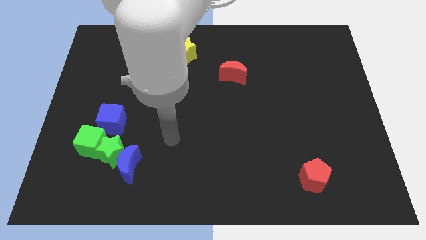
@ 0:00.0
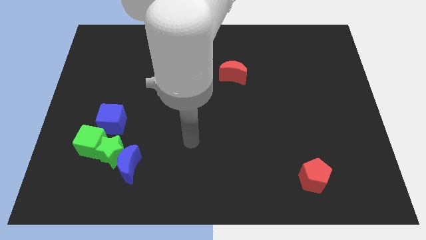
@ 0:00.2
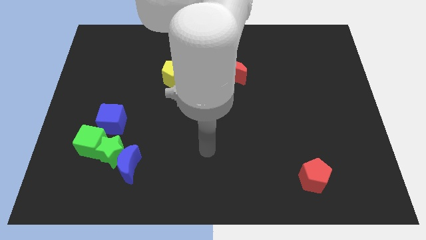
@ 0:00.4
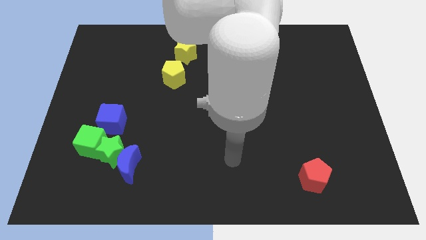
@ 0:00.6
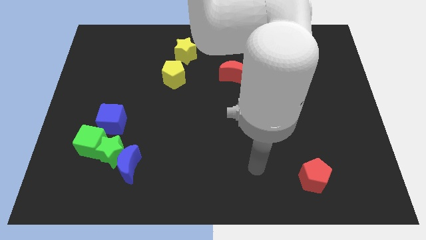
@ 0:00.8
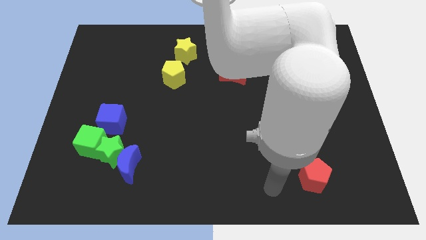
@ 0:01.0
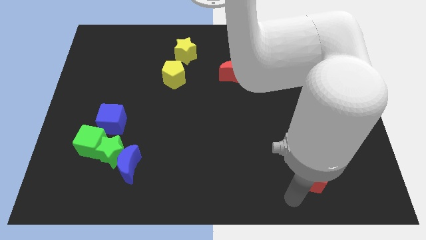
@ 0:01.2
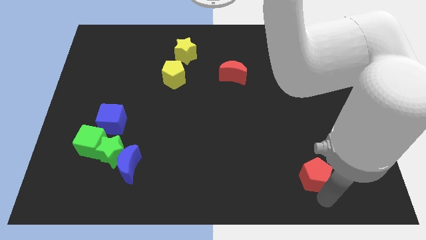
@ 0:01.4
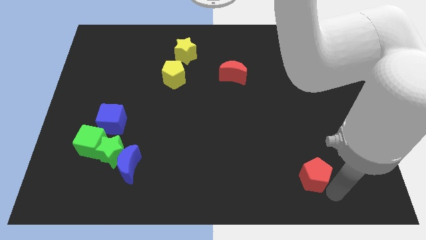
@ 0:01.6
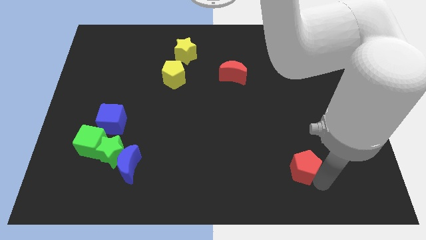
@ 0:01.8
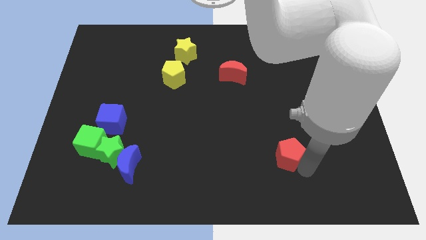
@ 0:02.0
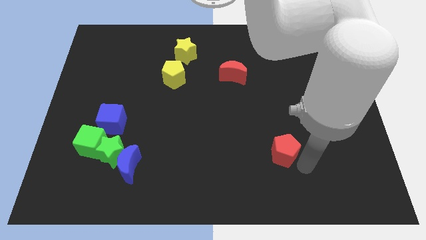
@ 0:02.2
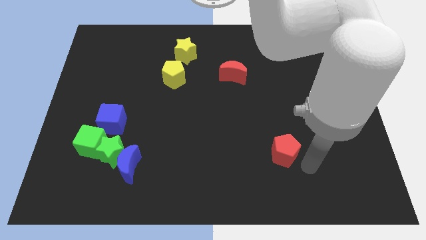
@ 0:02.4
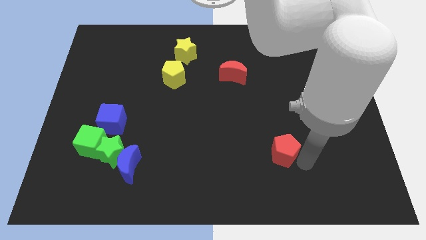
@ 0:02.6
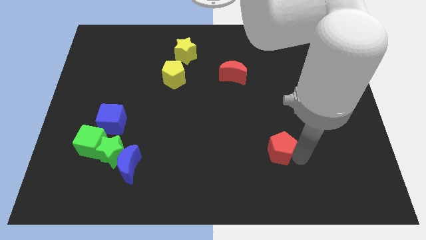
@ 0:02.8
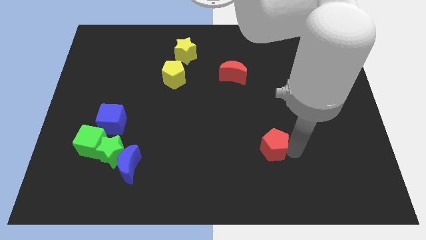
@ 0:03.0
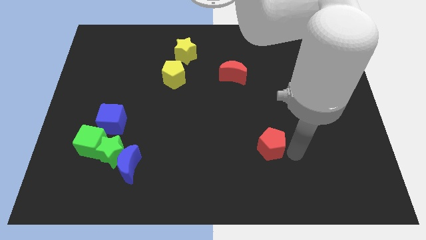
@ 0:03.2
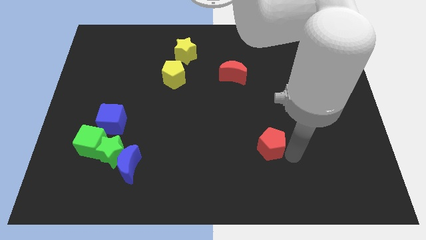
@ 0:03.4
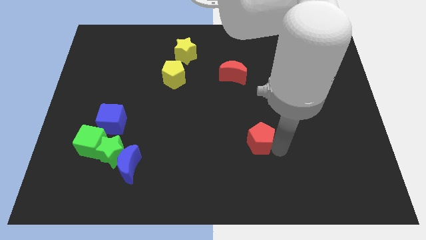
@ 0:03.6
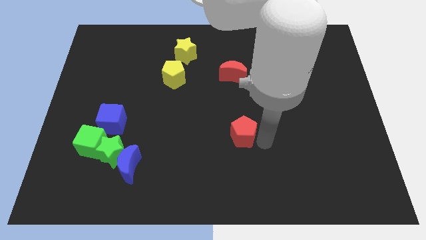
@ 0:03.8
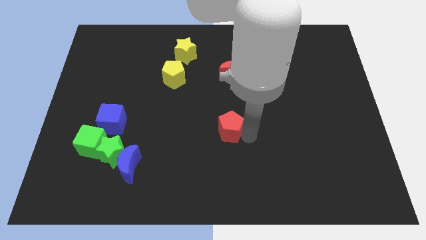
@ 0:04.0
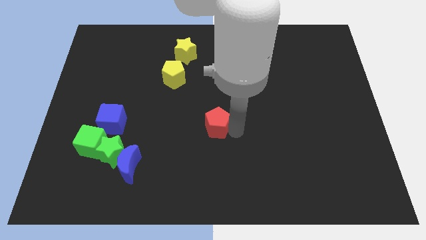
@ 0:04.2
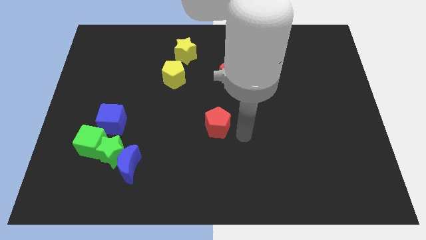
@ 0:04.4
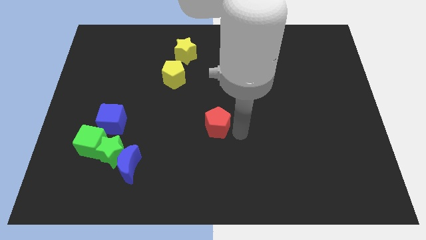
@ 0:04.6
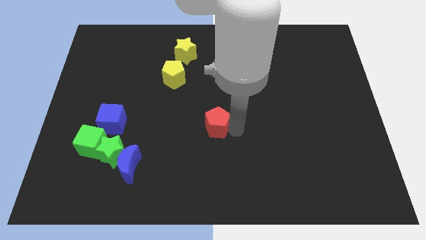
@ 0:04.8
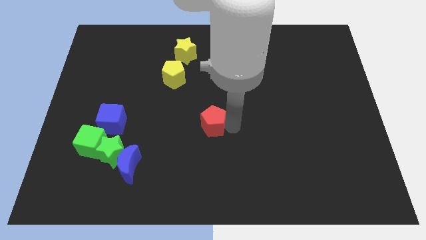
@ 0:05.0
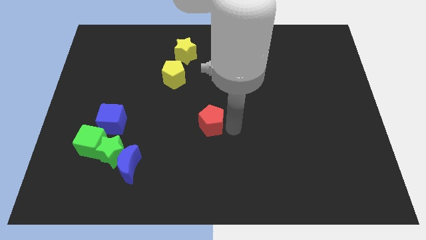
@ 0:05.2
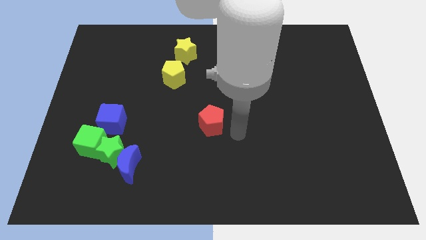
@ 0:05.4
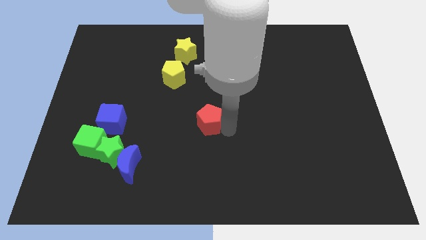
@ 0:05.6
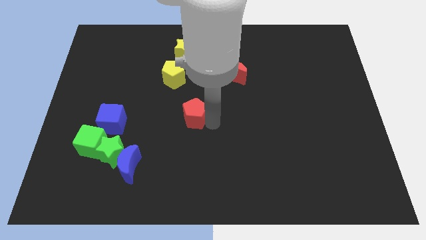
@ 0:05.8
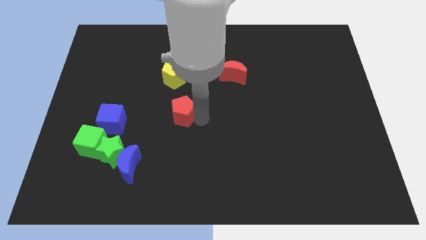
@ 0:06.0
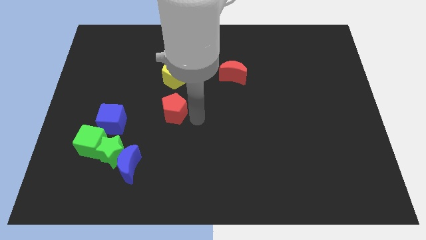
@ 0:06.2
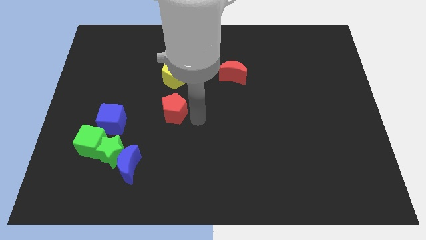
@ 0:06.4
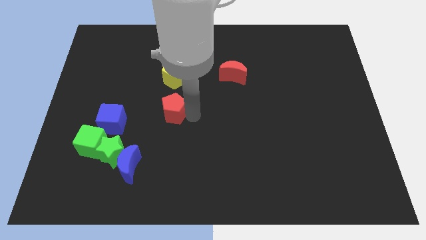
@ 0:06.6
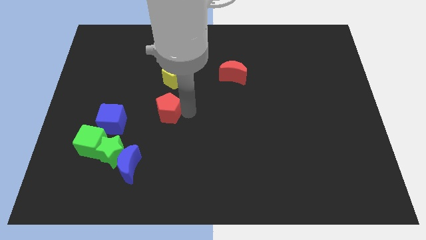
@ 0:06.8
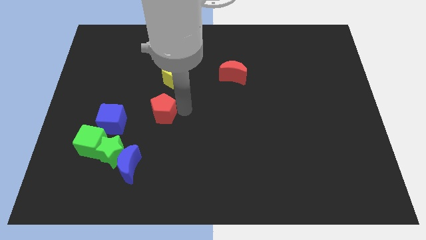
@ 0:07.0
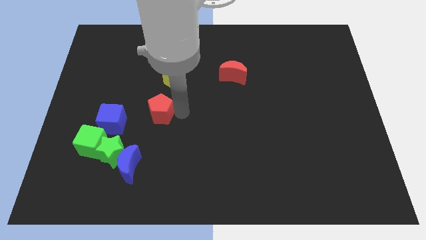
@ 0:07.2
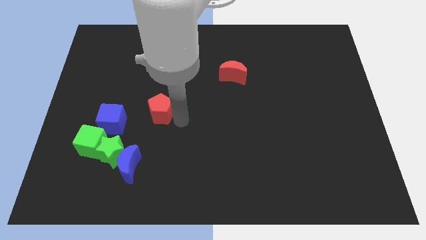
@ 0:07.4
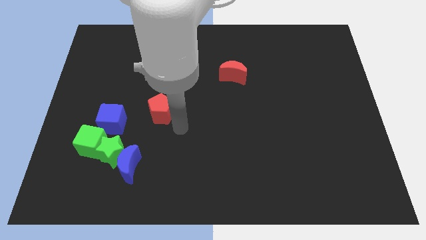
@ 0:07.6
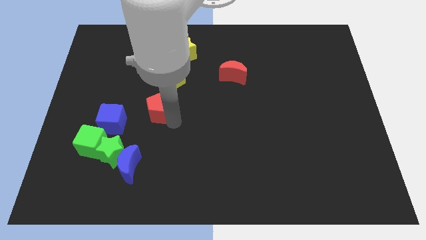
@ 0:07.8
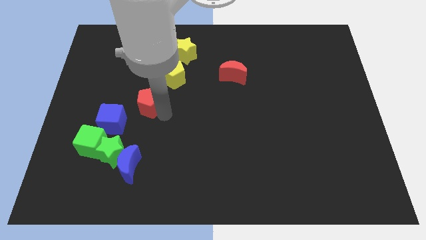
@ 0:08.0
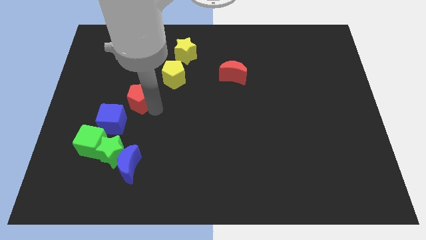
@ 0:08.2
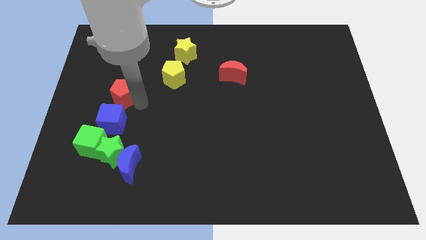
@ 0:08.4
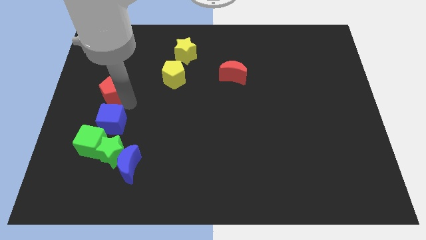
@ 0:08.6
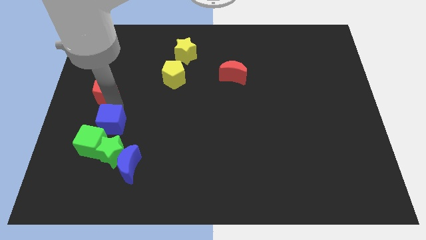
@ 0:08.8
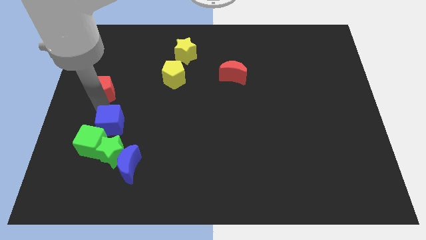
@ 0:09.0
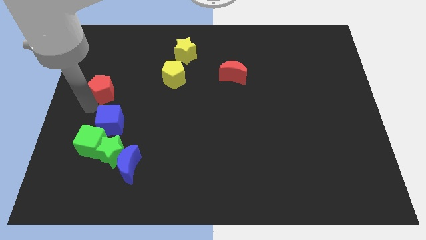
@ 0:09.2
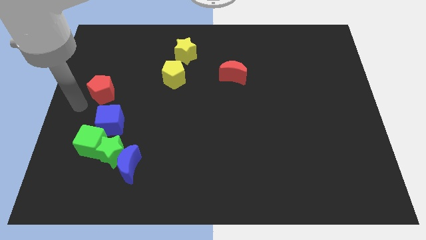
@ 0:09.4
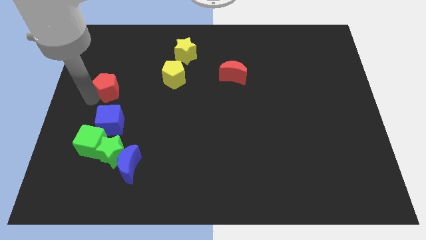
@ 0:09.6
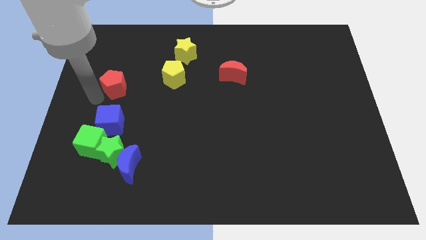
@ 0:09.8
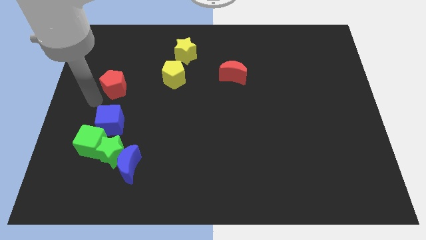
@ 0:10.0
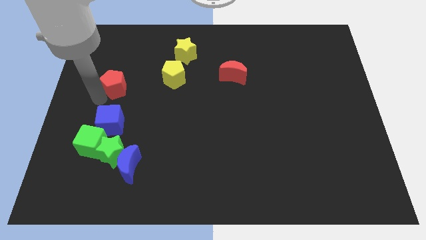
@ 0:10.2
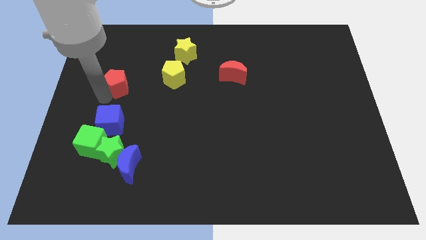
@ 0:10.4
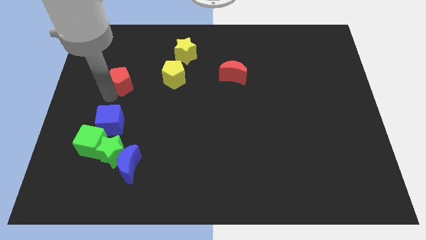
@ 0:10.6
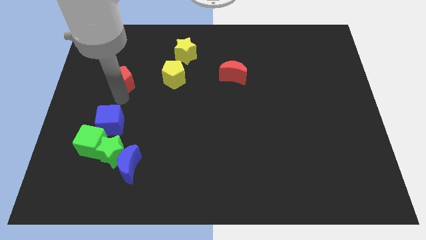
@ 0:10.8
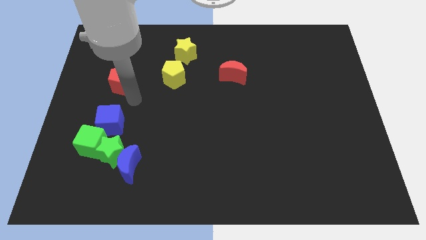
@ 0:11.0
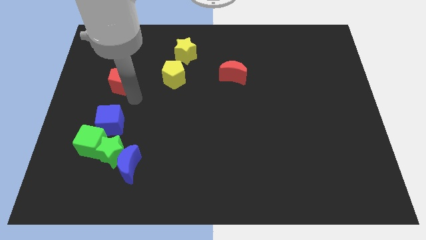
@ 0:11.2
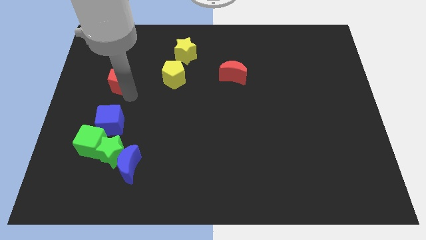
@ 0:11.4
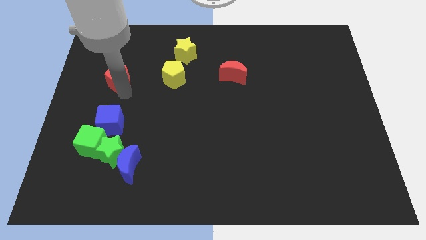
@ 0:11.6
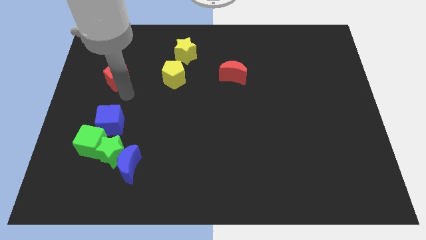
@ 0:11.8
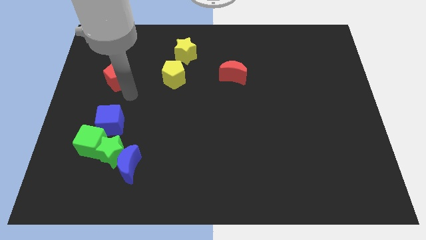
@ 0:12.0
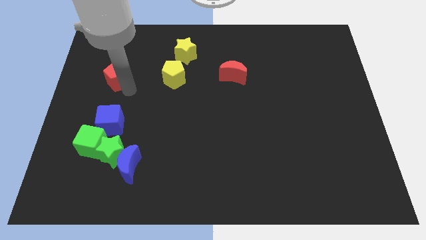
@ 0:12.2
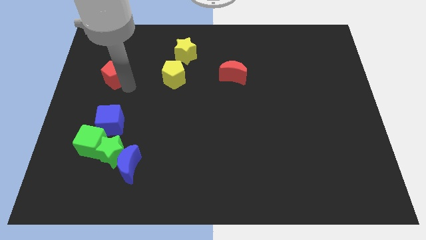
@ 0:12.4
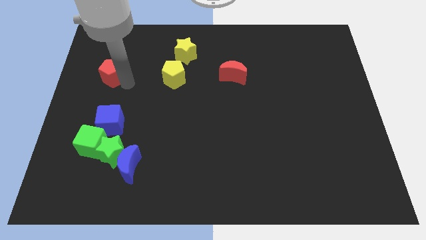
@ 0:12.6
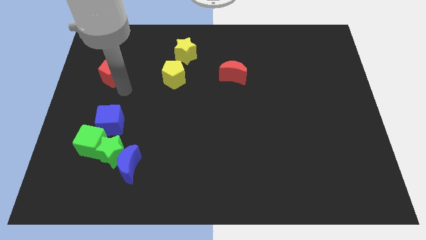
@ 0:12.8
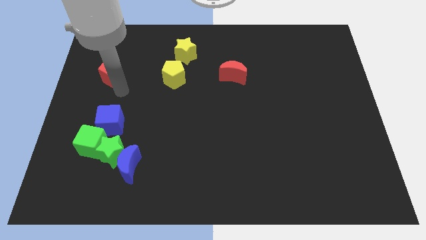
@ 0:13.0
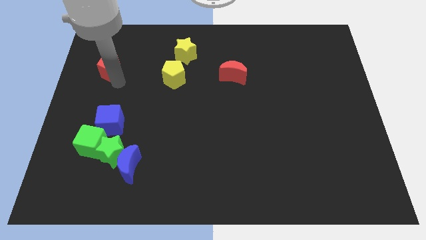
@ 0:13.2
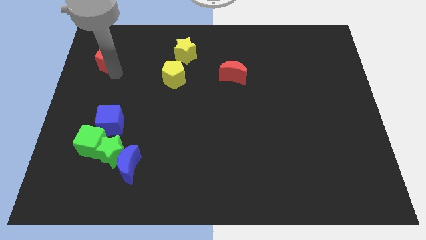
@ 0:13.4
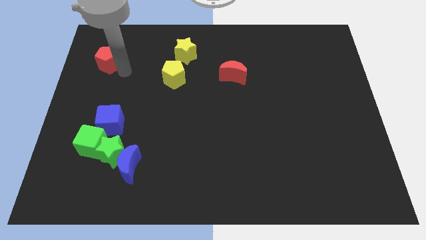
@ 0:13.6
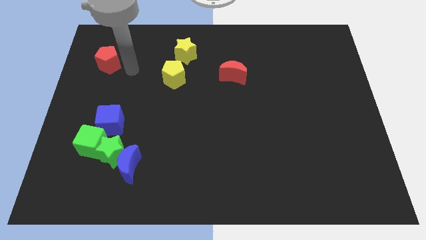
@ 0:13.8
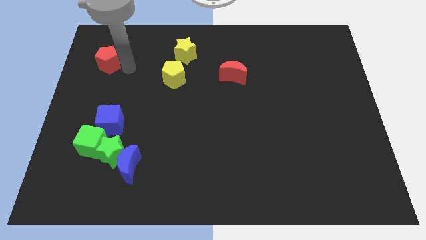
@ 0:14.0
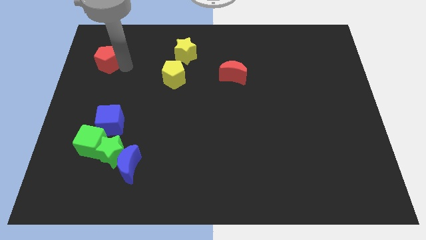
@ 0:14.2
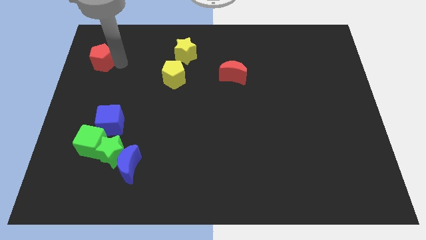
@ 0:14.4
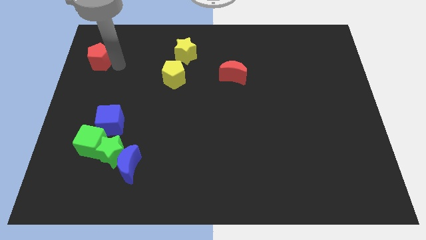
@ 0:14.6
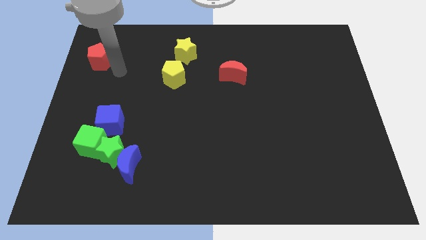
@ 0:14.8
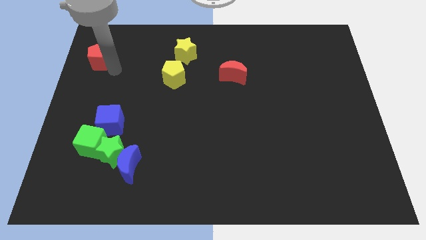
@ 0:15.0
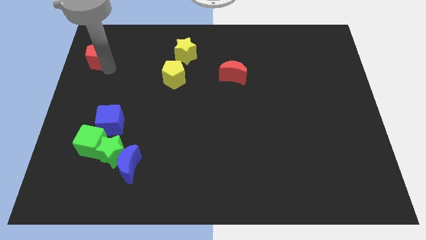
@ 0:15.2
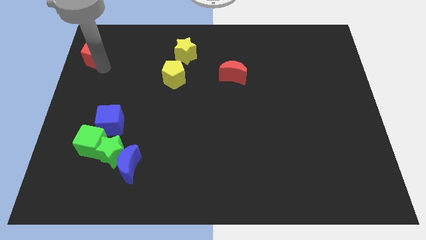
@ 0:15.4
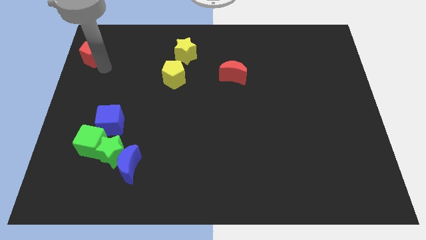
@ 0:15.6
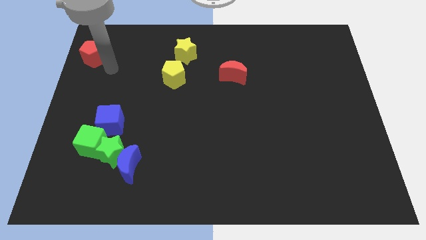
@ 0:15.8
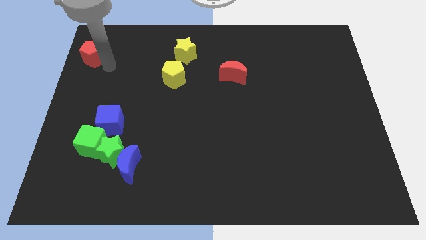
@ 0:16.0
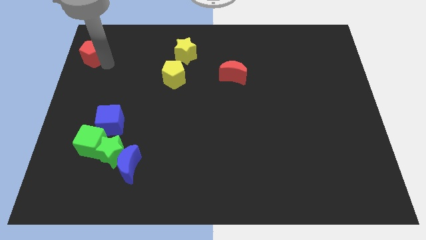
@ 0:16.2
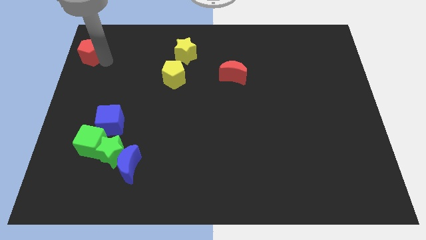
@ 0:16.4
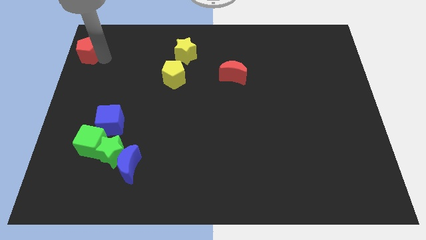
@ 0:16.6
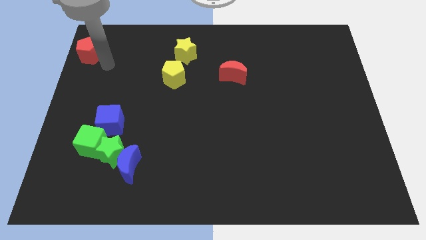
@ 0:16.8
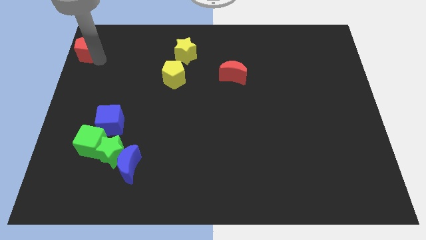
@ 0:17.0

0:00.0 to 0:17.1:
put the red pentagon to the top left of the board
